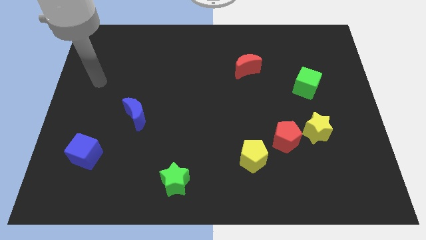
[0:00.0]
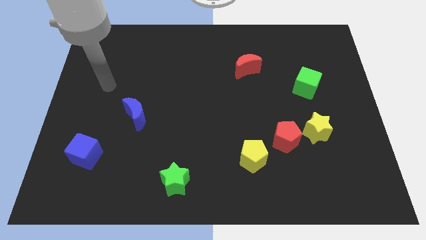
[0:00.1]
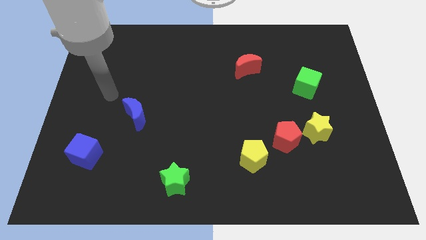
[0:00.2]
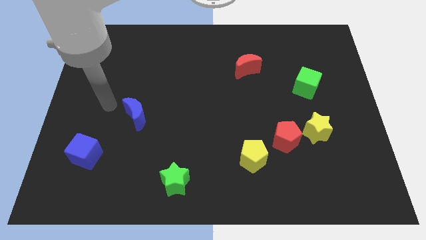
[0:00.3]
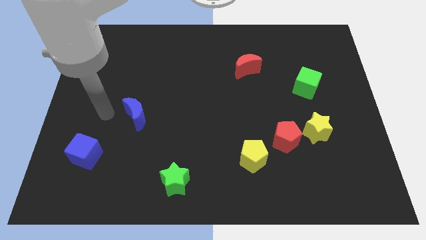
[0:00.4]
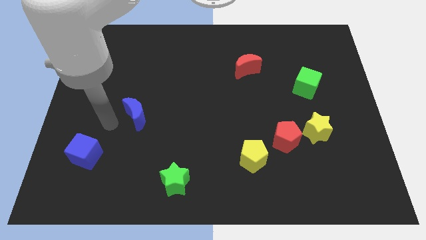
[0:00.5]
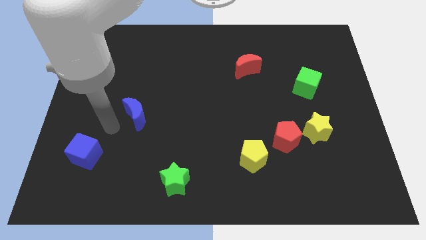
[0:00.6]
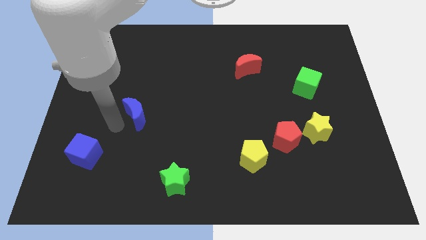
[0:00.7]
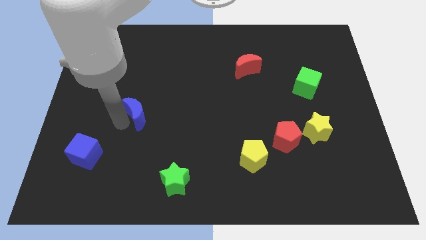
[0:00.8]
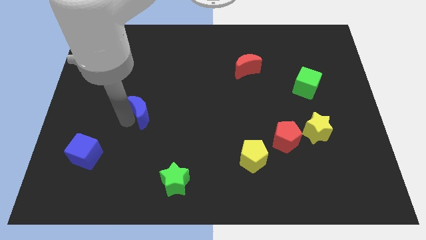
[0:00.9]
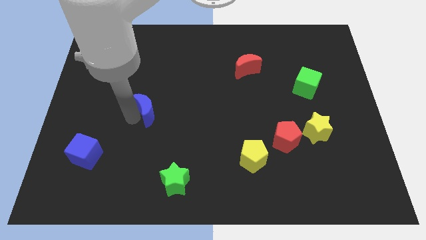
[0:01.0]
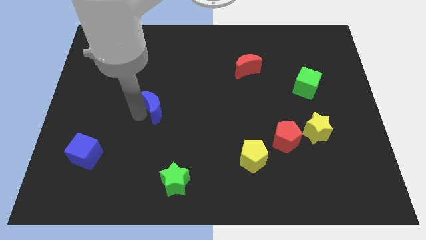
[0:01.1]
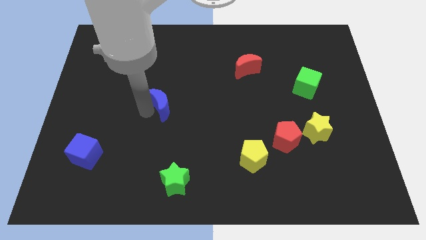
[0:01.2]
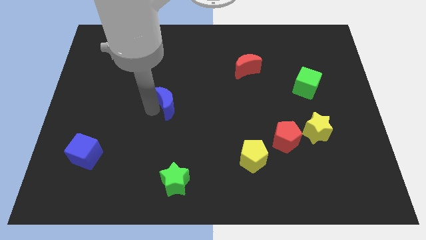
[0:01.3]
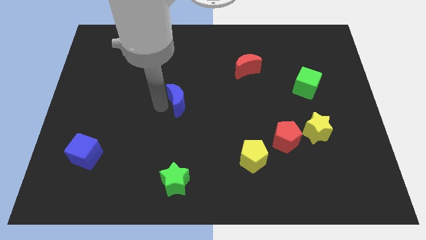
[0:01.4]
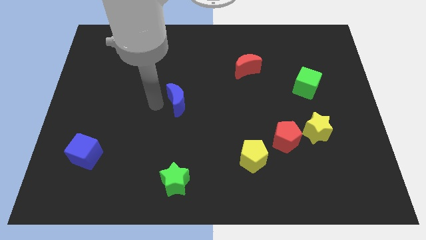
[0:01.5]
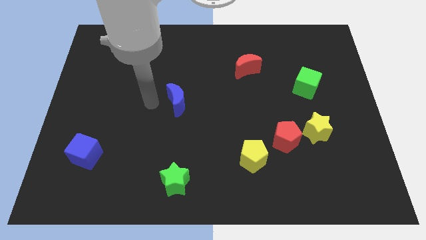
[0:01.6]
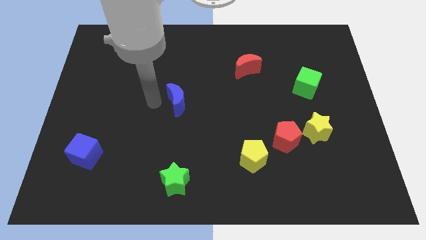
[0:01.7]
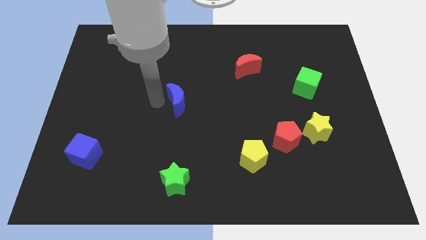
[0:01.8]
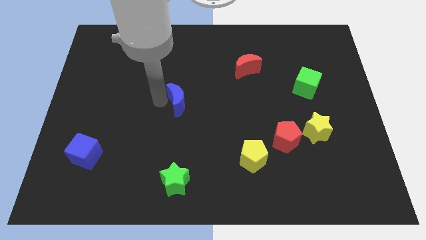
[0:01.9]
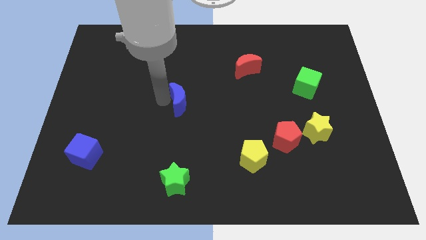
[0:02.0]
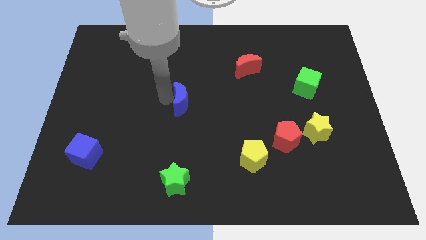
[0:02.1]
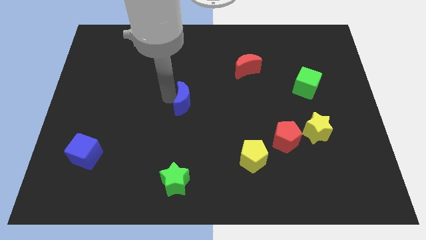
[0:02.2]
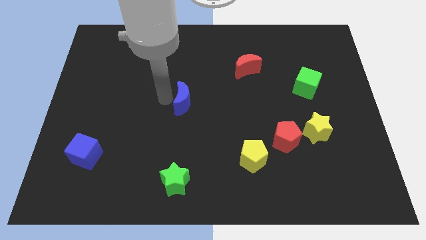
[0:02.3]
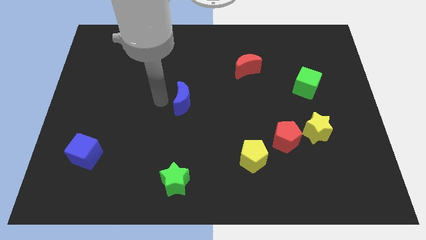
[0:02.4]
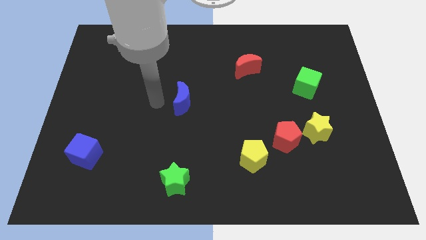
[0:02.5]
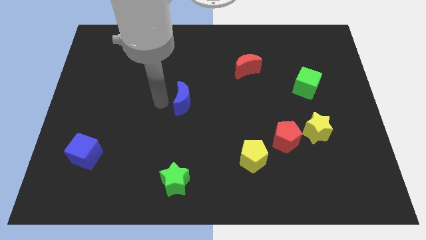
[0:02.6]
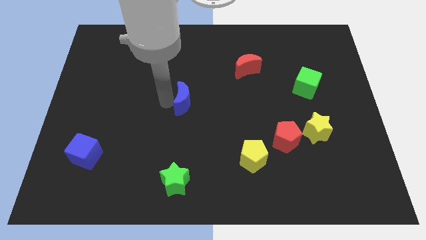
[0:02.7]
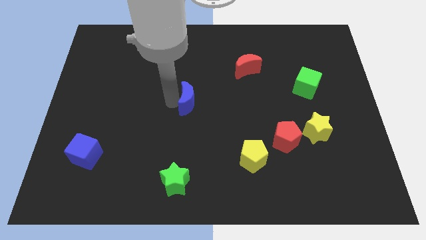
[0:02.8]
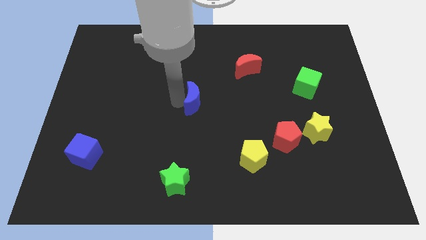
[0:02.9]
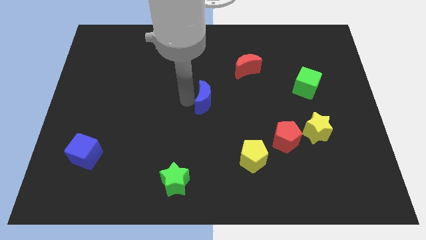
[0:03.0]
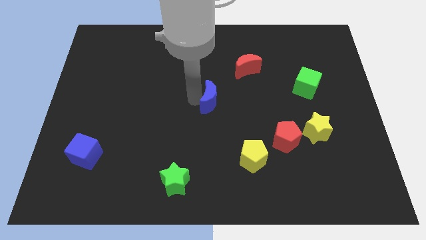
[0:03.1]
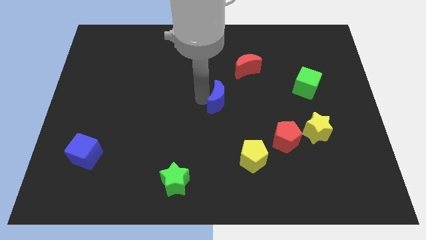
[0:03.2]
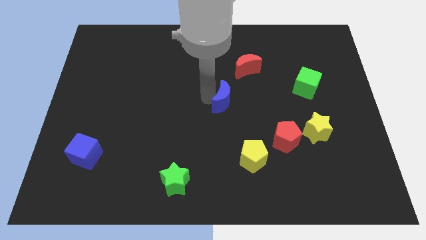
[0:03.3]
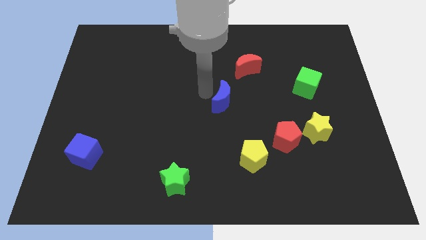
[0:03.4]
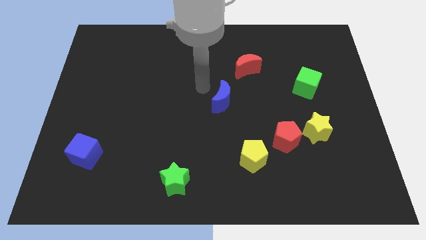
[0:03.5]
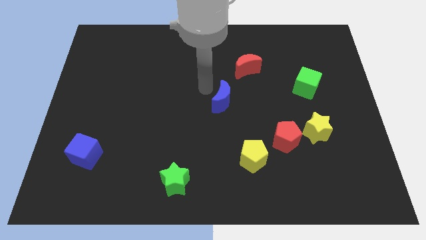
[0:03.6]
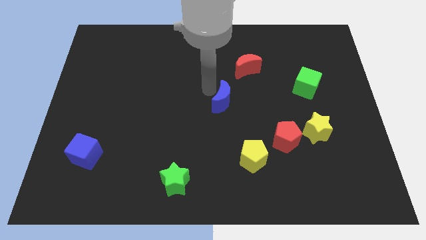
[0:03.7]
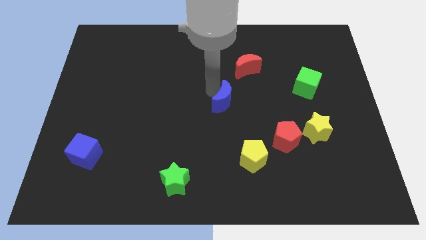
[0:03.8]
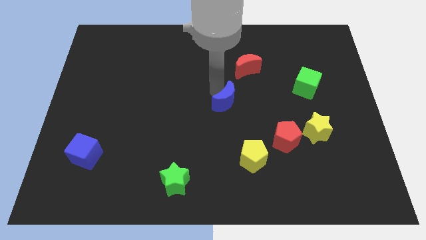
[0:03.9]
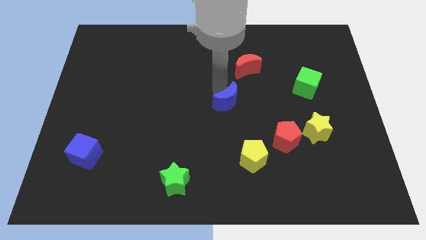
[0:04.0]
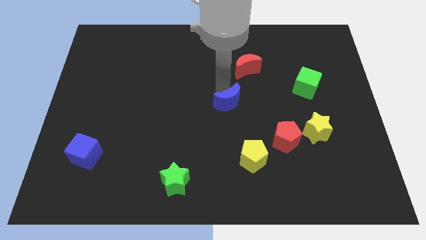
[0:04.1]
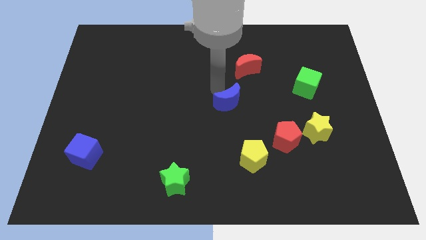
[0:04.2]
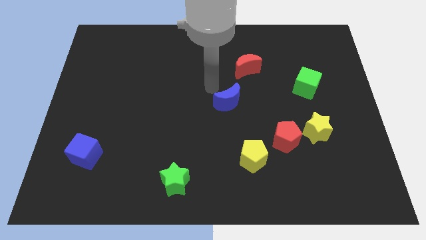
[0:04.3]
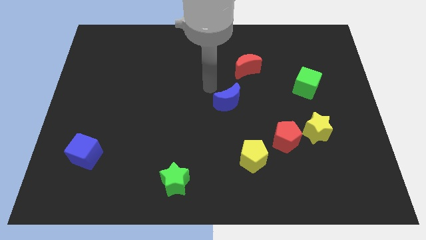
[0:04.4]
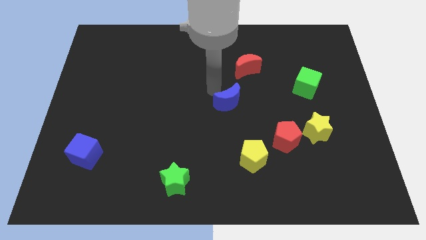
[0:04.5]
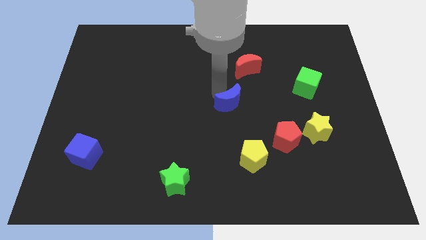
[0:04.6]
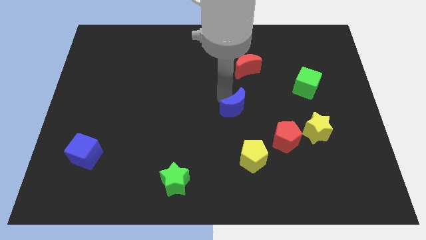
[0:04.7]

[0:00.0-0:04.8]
slide the blue moon to the top side of the yellow pentagon

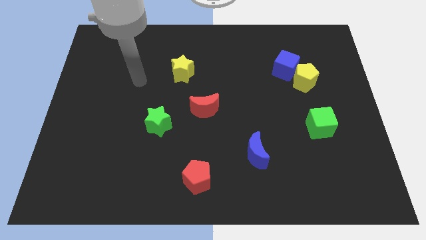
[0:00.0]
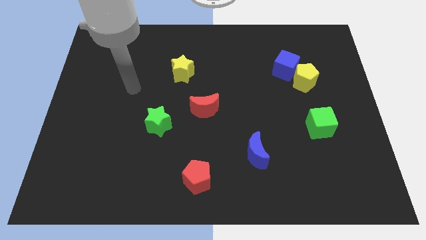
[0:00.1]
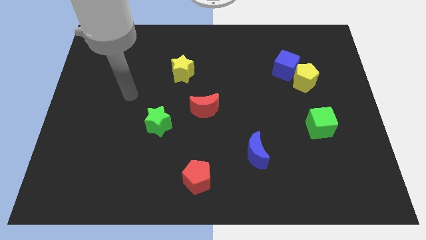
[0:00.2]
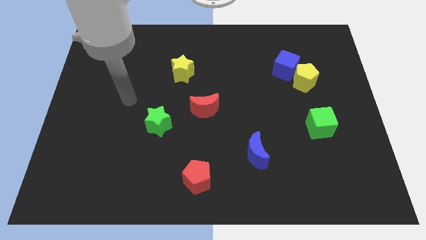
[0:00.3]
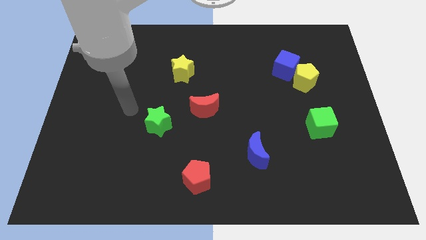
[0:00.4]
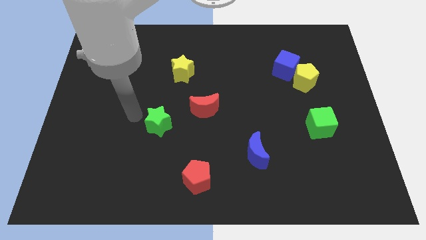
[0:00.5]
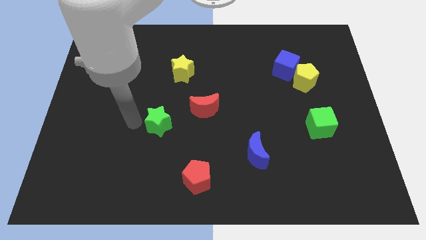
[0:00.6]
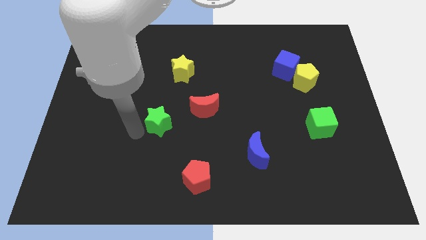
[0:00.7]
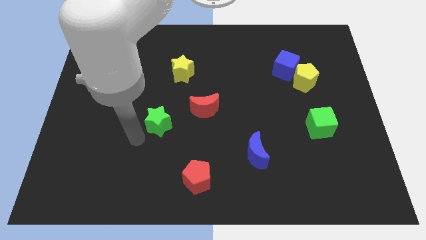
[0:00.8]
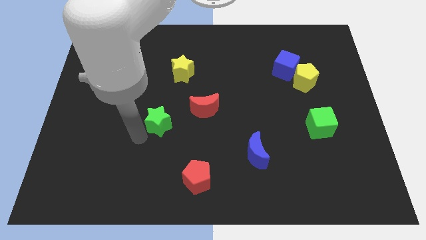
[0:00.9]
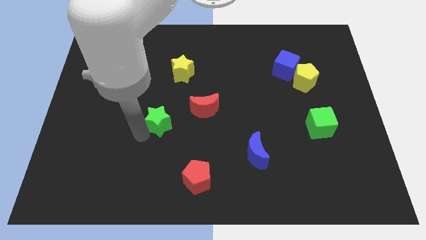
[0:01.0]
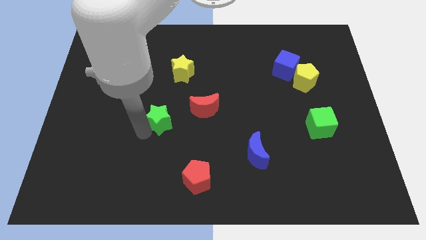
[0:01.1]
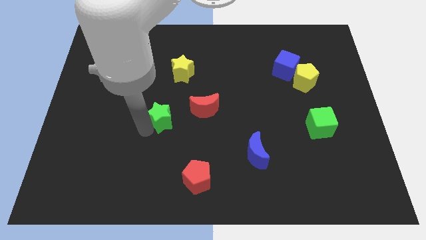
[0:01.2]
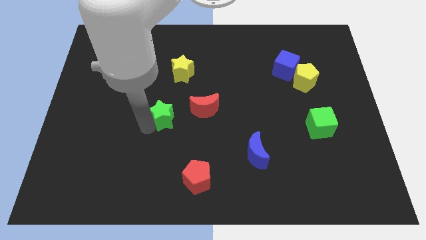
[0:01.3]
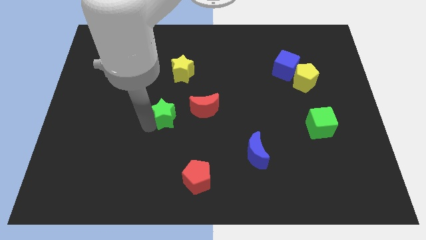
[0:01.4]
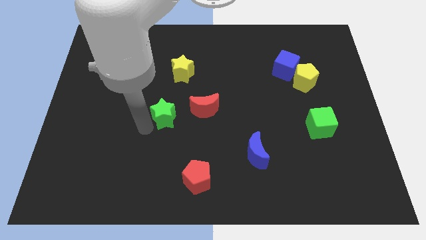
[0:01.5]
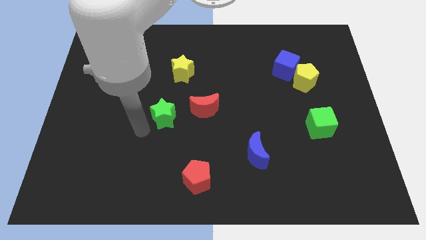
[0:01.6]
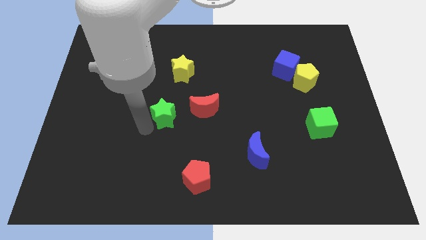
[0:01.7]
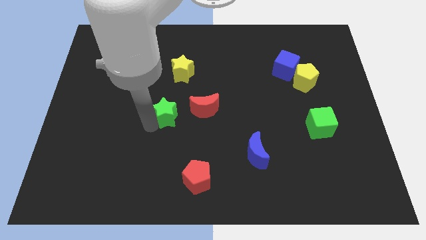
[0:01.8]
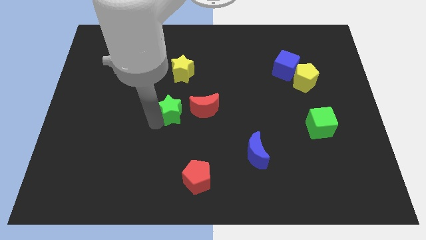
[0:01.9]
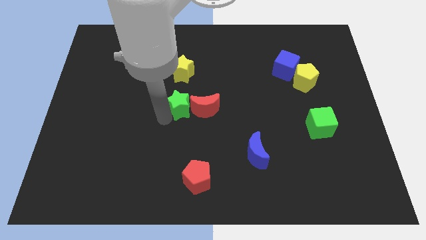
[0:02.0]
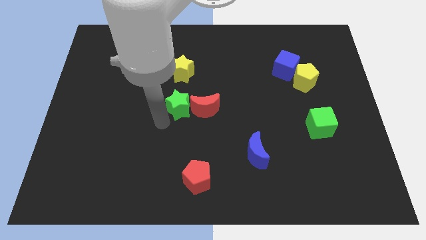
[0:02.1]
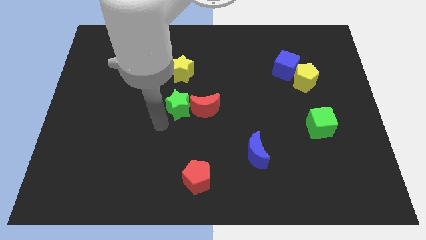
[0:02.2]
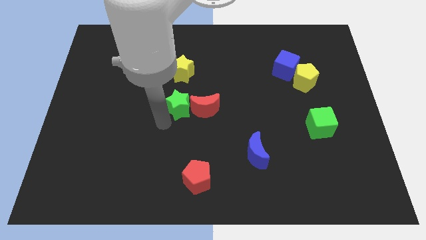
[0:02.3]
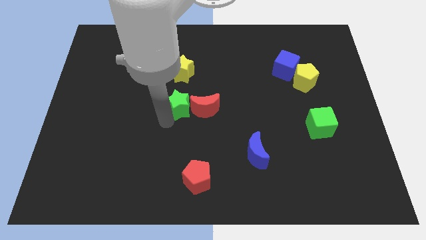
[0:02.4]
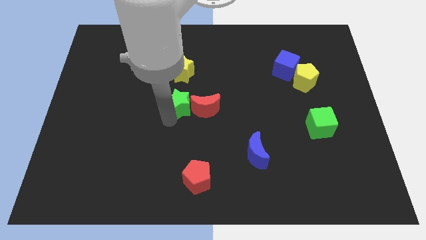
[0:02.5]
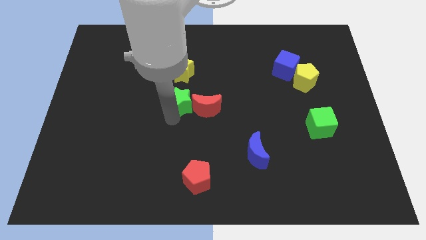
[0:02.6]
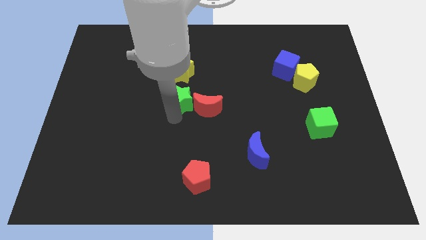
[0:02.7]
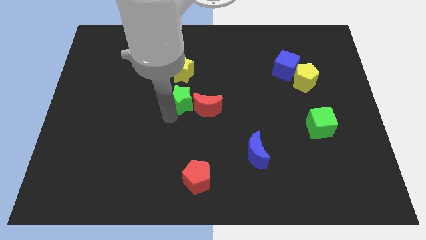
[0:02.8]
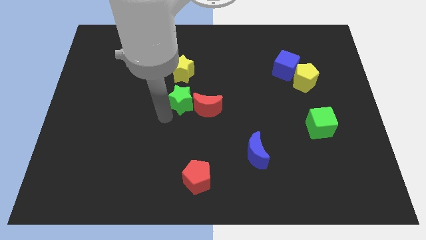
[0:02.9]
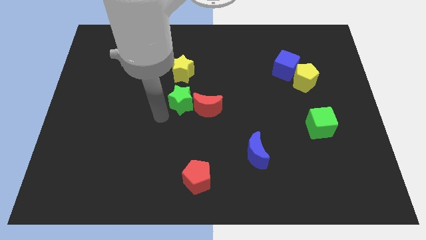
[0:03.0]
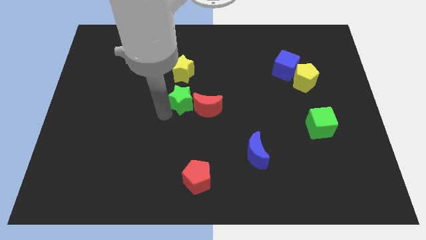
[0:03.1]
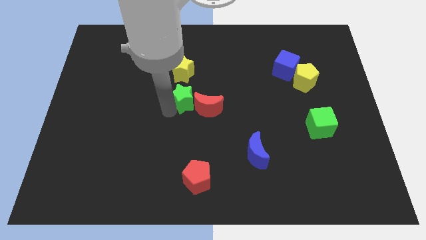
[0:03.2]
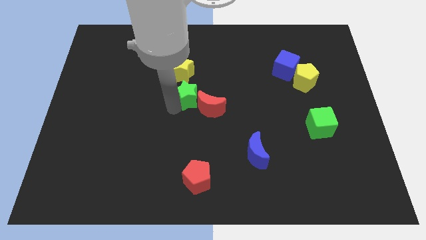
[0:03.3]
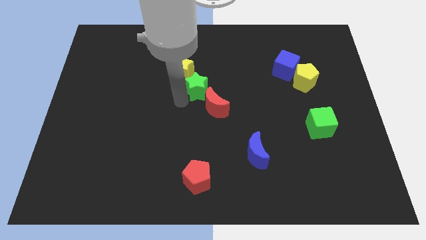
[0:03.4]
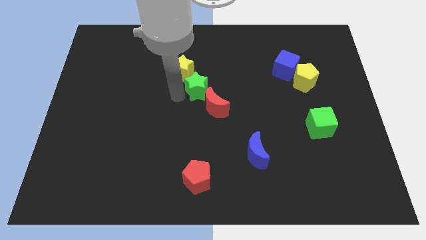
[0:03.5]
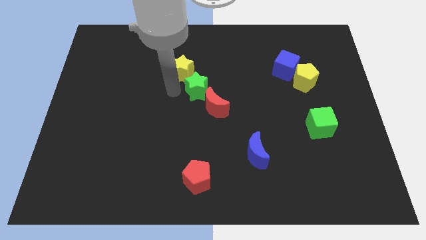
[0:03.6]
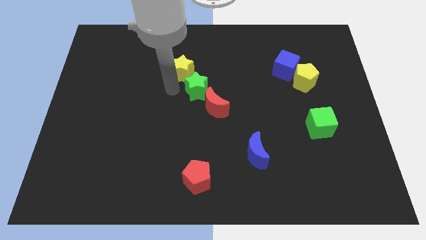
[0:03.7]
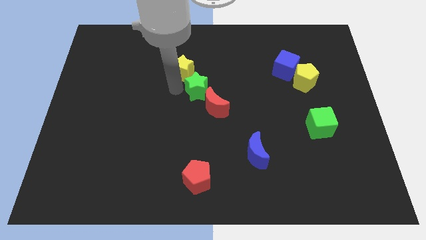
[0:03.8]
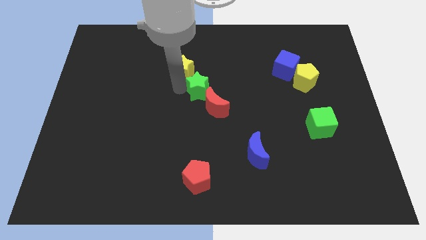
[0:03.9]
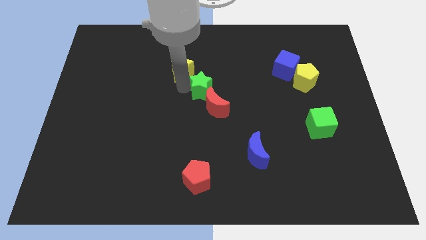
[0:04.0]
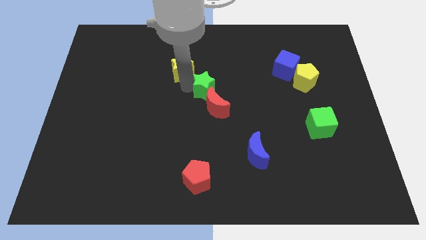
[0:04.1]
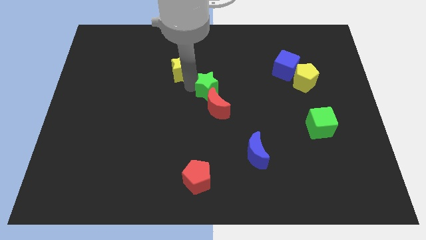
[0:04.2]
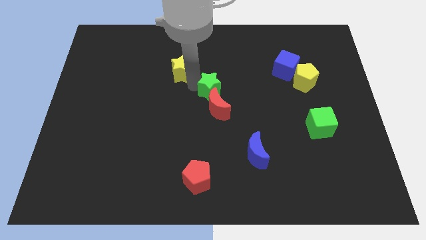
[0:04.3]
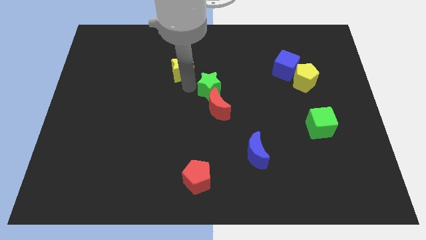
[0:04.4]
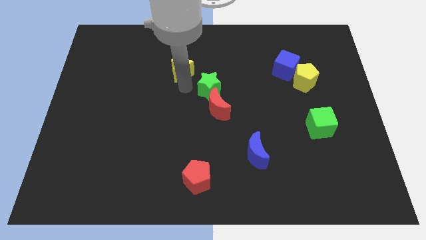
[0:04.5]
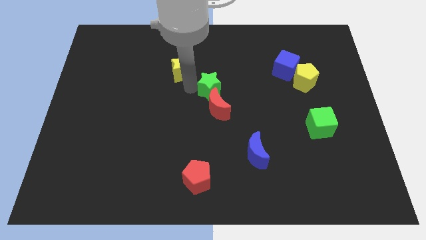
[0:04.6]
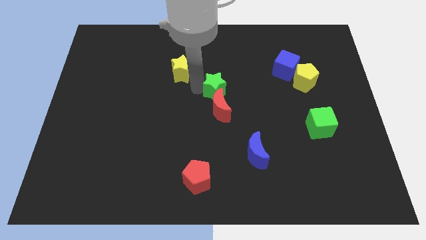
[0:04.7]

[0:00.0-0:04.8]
slide the green star to the top right side of the red moon
